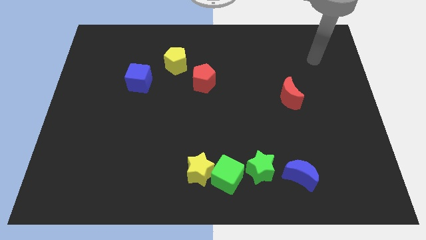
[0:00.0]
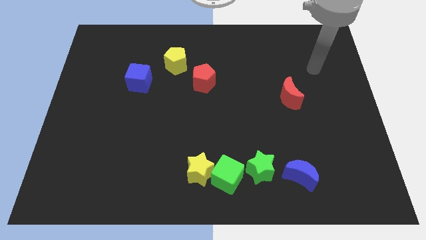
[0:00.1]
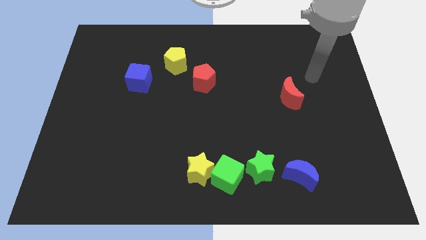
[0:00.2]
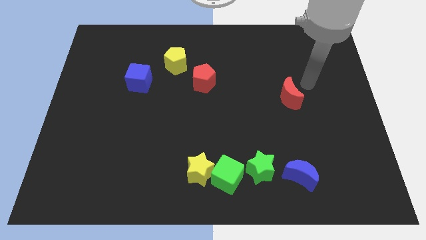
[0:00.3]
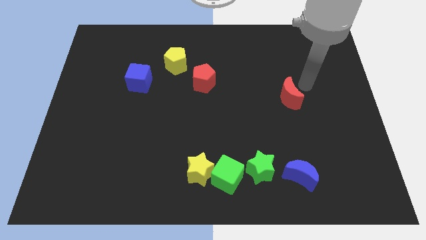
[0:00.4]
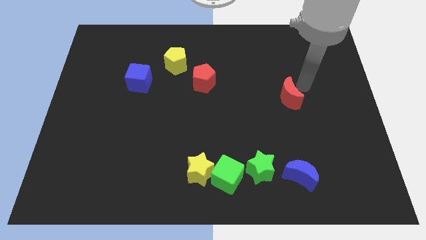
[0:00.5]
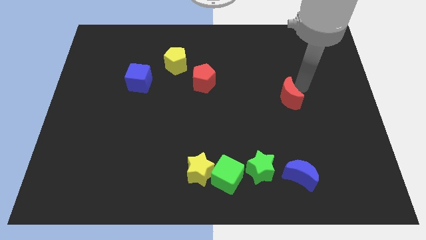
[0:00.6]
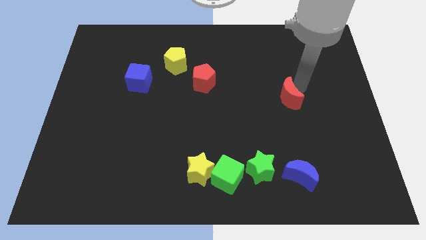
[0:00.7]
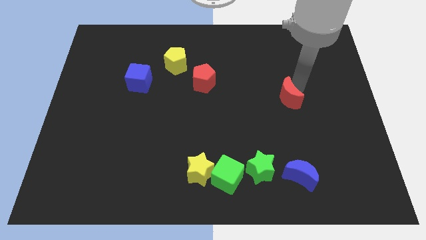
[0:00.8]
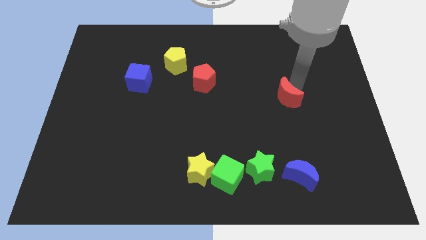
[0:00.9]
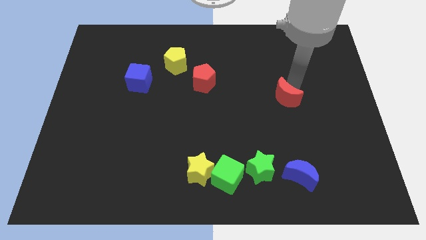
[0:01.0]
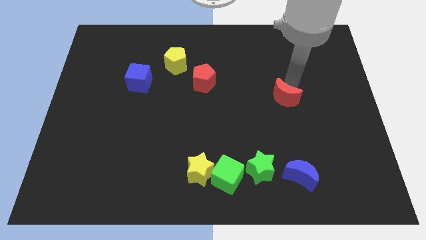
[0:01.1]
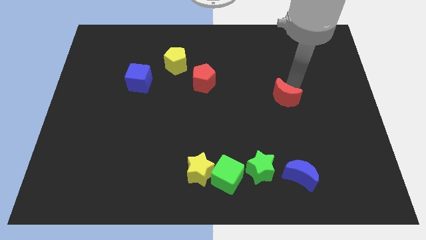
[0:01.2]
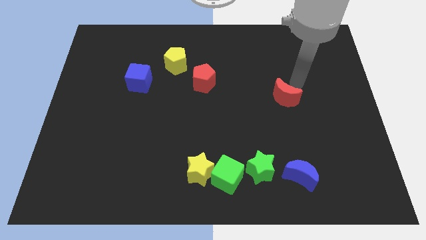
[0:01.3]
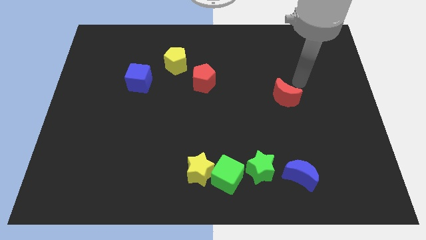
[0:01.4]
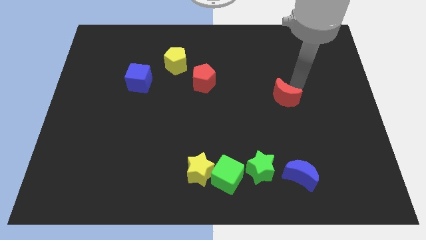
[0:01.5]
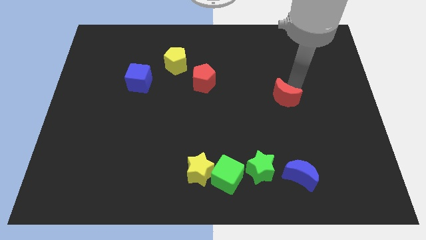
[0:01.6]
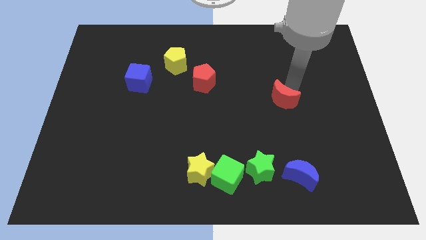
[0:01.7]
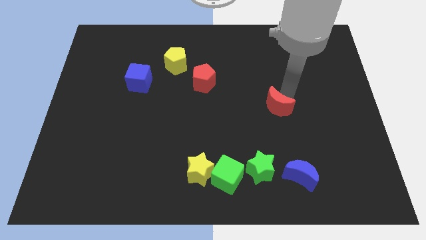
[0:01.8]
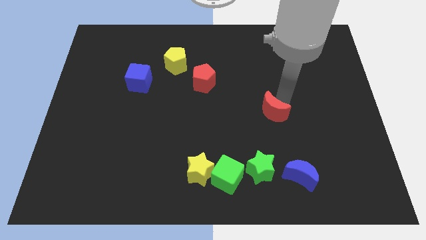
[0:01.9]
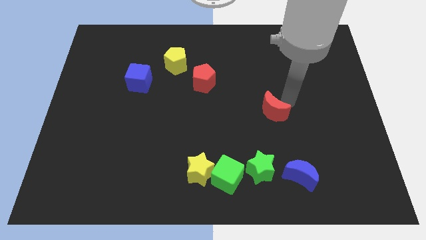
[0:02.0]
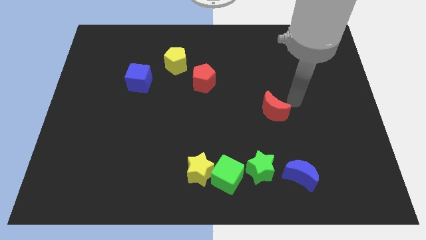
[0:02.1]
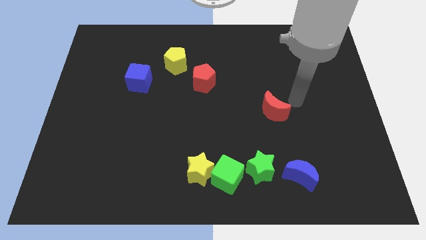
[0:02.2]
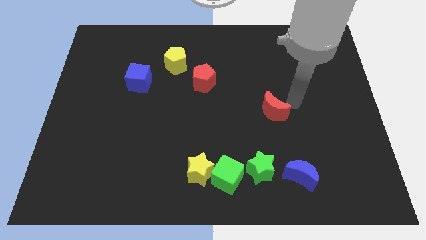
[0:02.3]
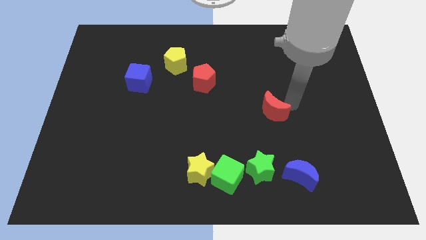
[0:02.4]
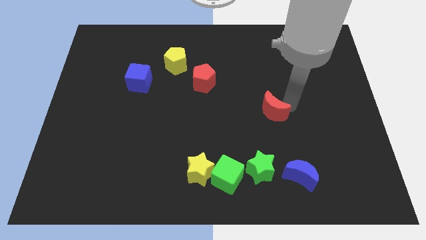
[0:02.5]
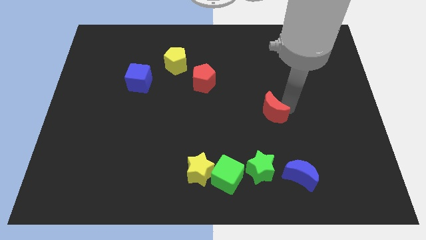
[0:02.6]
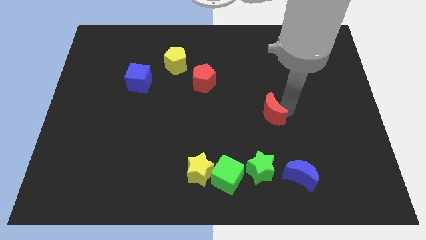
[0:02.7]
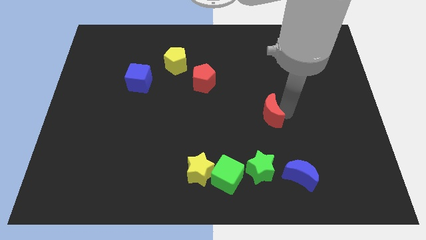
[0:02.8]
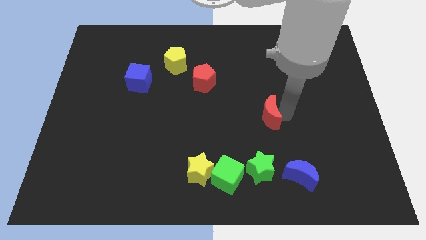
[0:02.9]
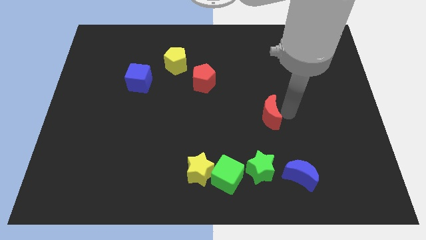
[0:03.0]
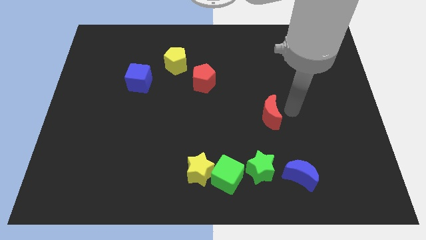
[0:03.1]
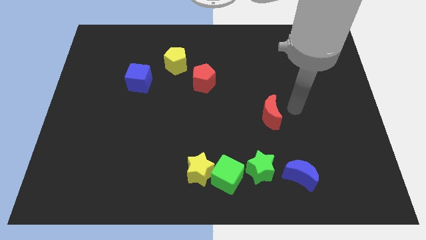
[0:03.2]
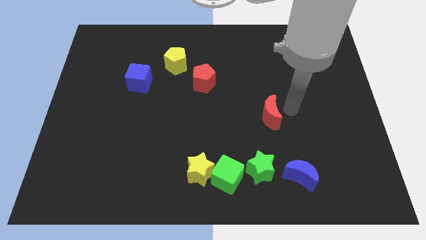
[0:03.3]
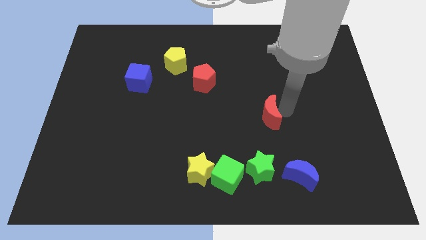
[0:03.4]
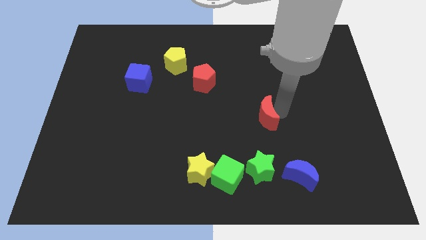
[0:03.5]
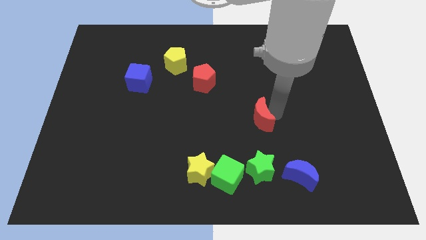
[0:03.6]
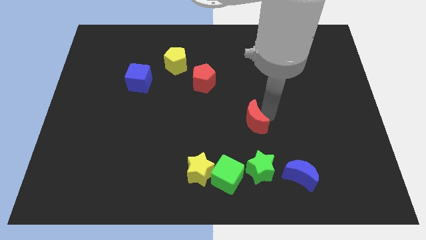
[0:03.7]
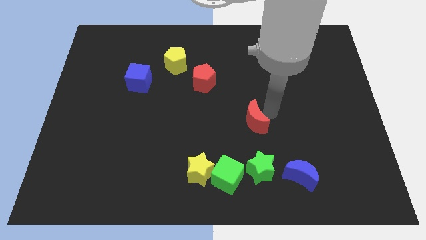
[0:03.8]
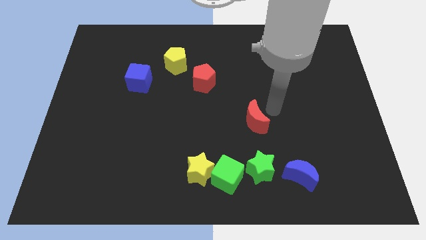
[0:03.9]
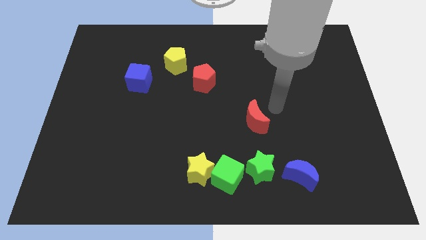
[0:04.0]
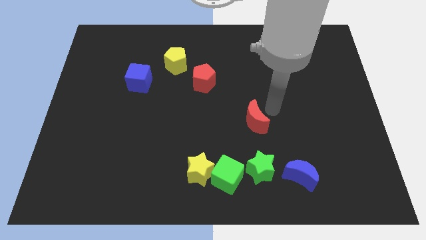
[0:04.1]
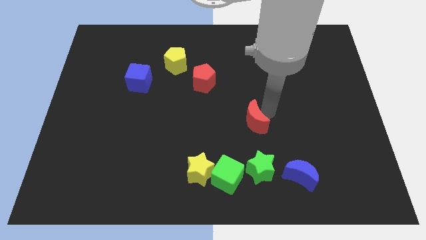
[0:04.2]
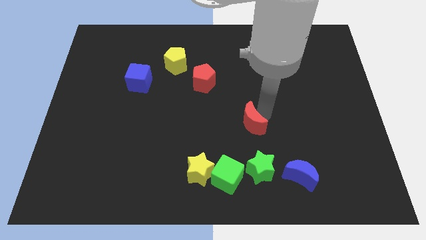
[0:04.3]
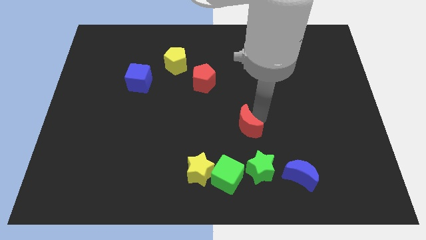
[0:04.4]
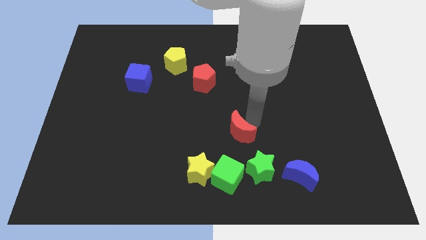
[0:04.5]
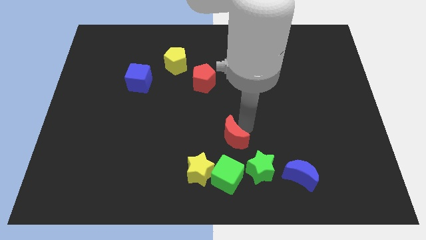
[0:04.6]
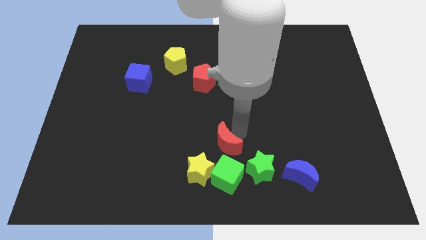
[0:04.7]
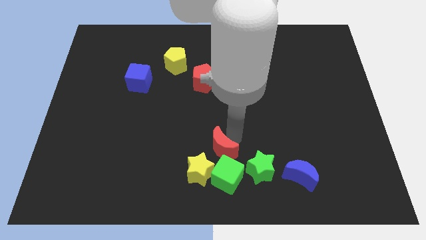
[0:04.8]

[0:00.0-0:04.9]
slide the red moon to the top left of the green cube

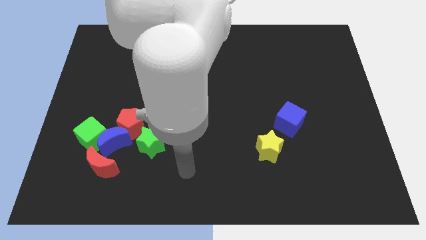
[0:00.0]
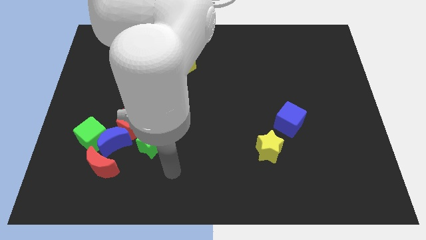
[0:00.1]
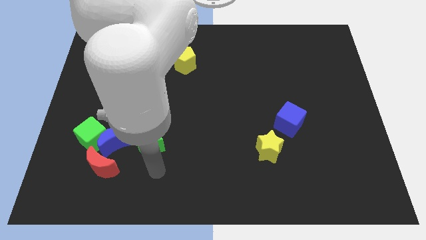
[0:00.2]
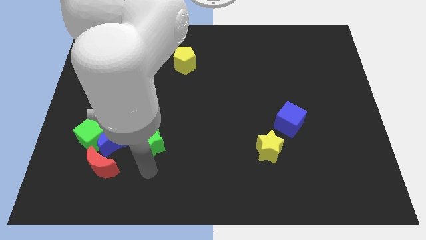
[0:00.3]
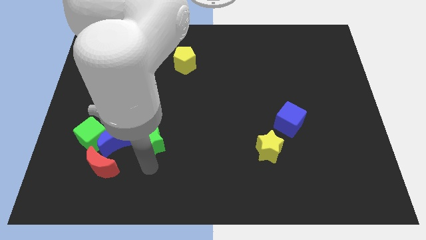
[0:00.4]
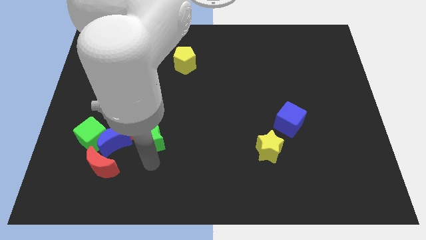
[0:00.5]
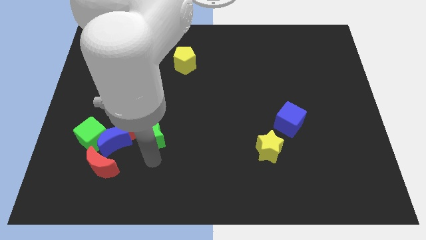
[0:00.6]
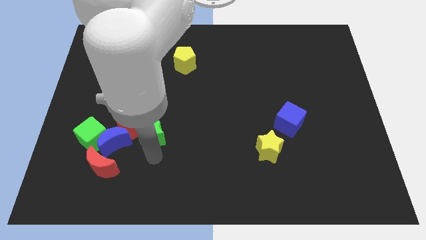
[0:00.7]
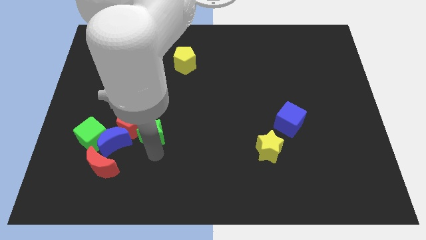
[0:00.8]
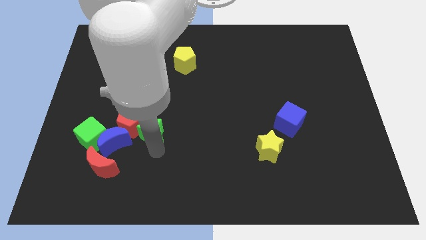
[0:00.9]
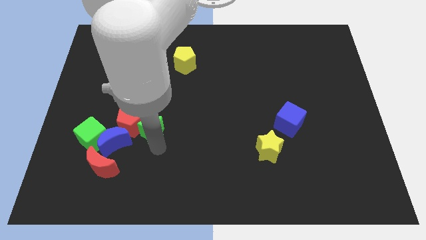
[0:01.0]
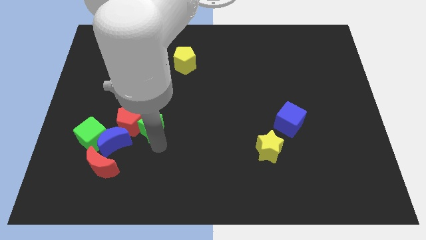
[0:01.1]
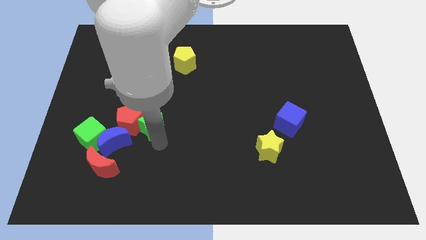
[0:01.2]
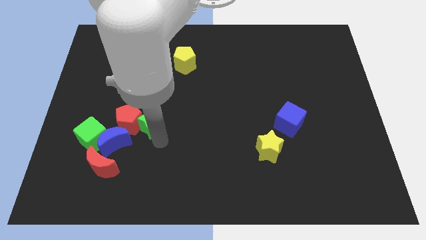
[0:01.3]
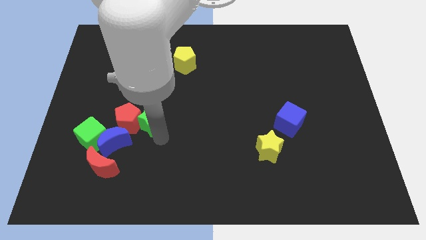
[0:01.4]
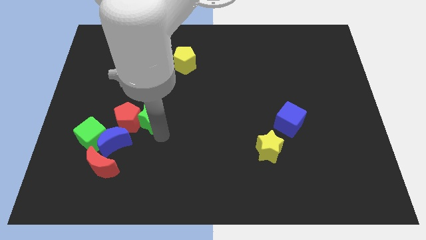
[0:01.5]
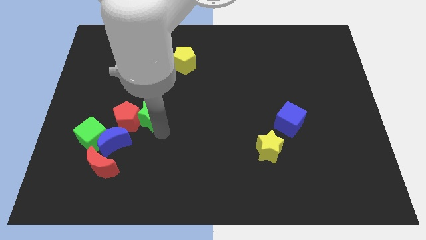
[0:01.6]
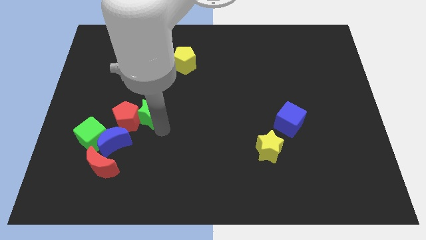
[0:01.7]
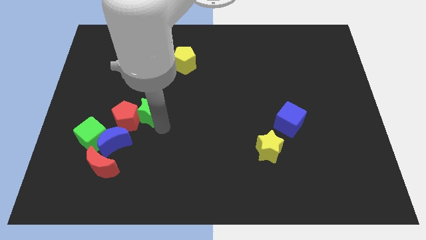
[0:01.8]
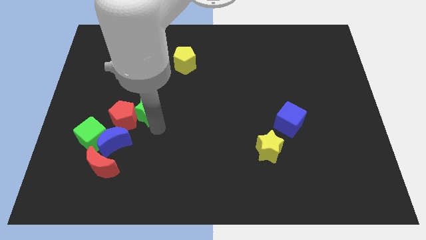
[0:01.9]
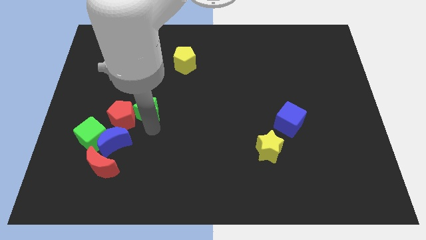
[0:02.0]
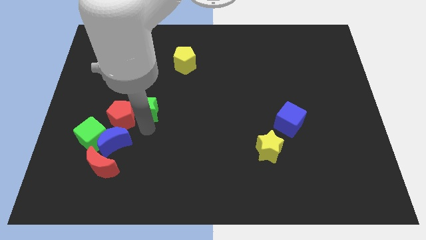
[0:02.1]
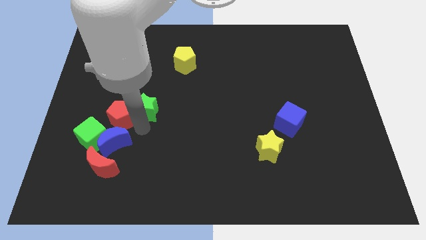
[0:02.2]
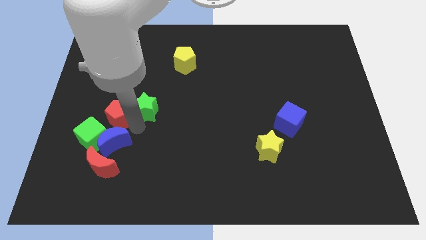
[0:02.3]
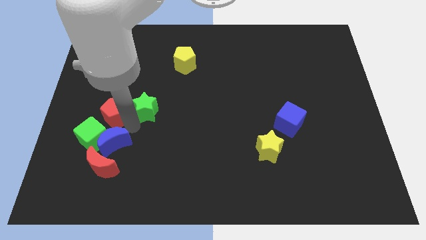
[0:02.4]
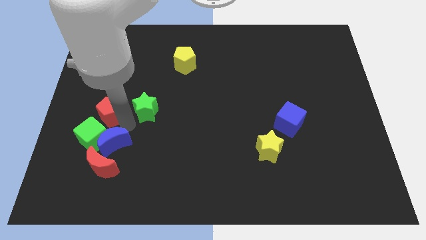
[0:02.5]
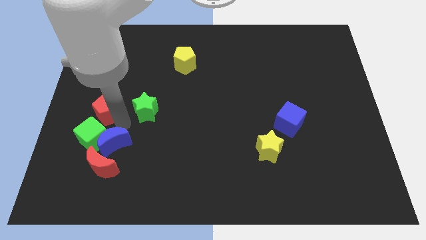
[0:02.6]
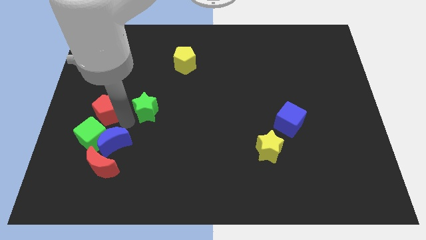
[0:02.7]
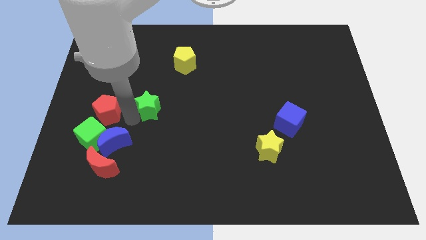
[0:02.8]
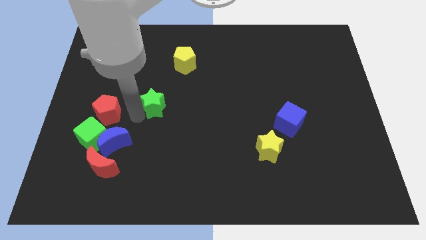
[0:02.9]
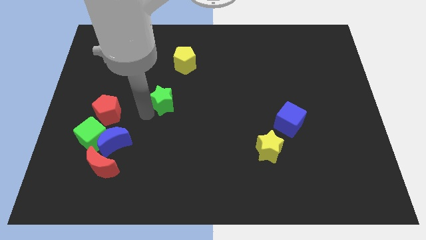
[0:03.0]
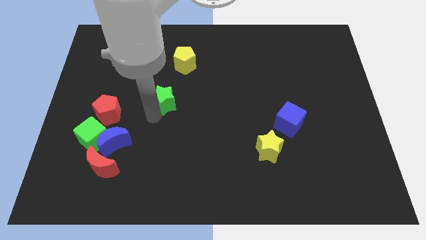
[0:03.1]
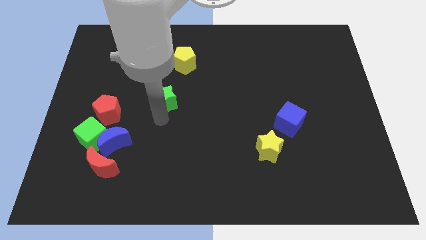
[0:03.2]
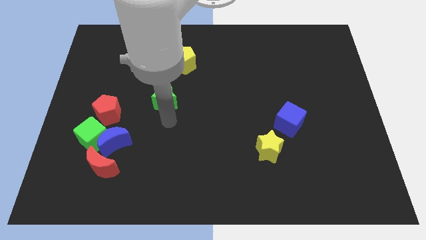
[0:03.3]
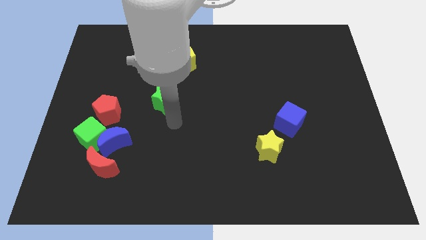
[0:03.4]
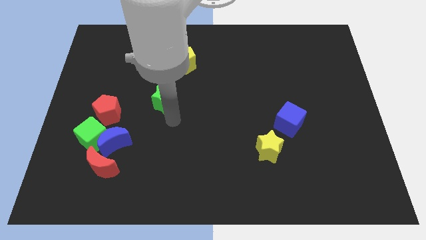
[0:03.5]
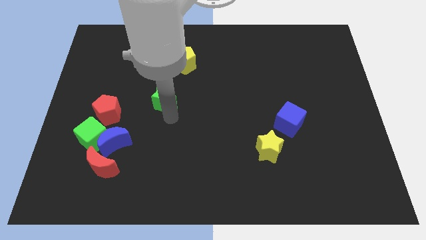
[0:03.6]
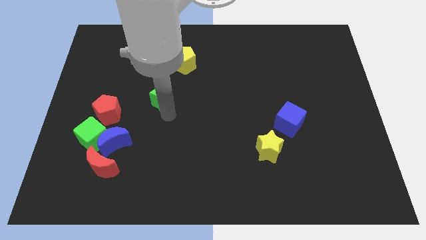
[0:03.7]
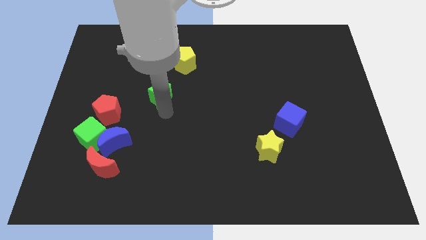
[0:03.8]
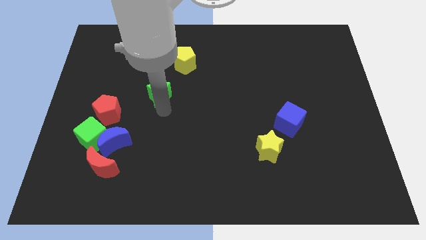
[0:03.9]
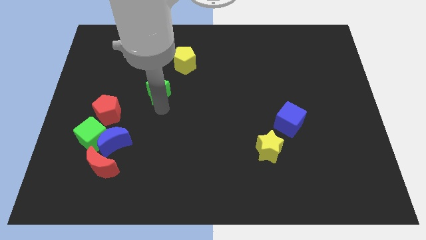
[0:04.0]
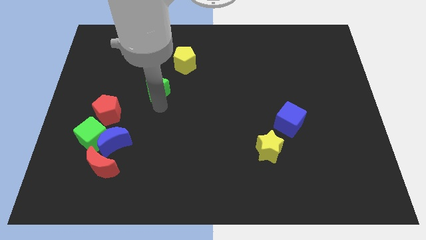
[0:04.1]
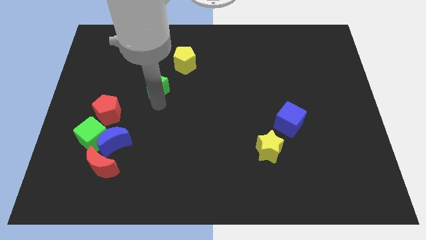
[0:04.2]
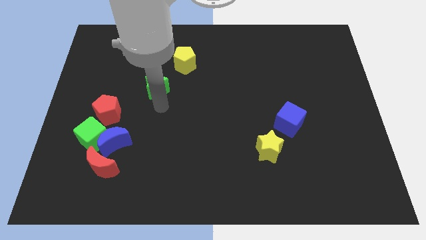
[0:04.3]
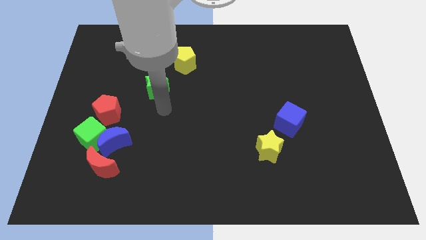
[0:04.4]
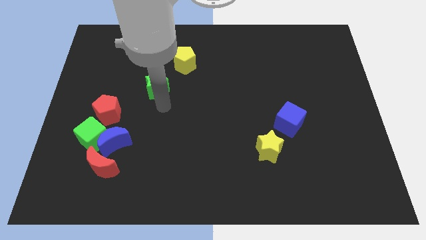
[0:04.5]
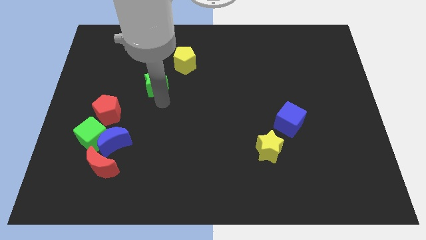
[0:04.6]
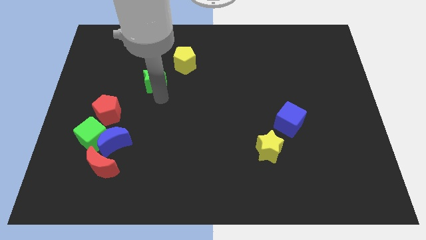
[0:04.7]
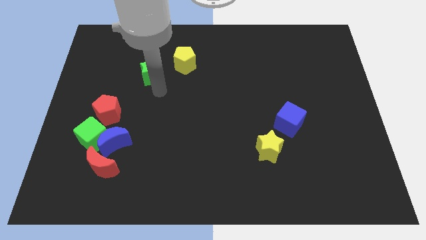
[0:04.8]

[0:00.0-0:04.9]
put the green star to the left side of the yellow pentagon
